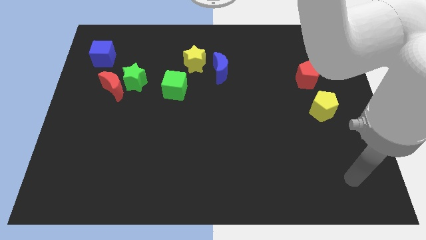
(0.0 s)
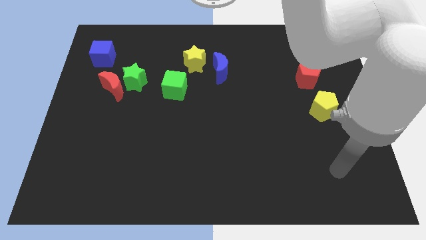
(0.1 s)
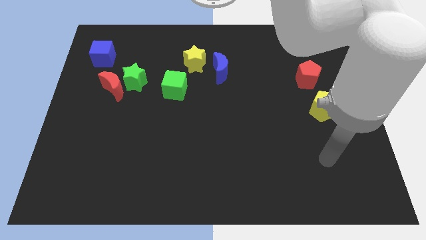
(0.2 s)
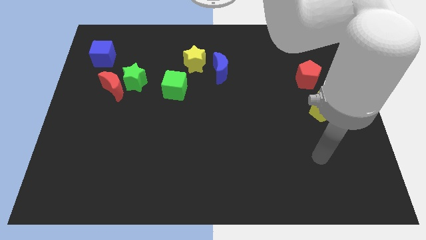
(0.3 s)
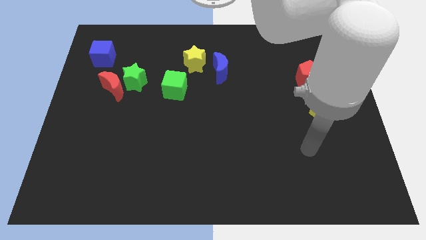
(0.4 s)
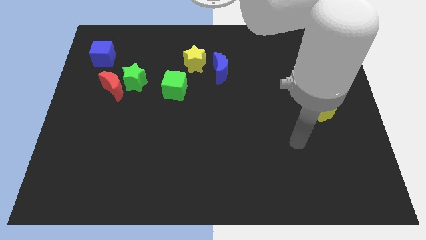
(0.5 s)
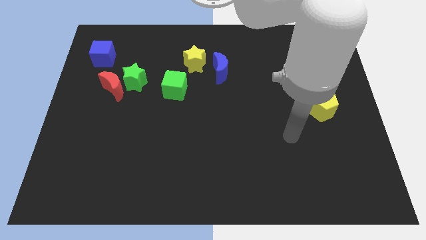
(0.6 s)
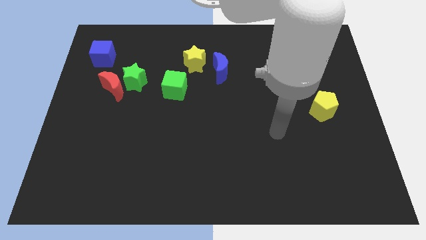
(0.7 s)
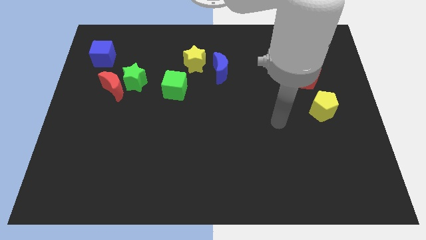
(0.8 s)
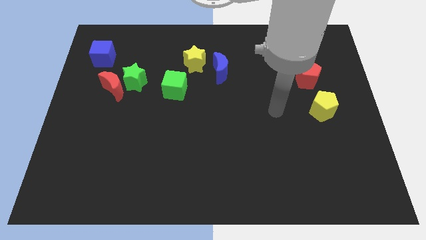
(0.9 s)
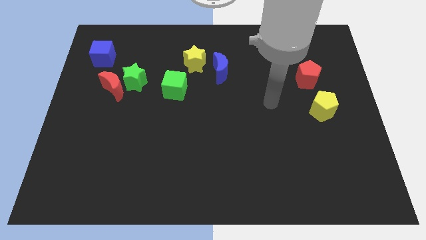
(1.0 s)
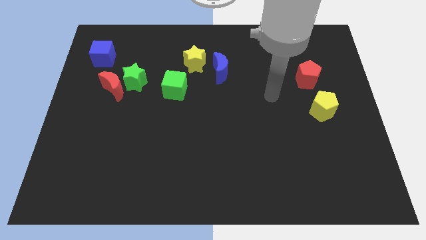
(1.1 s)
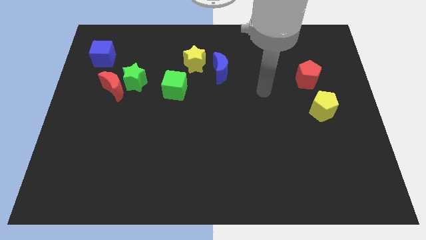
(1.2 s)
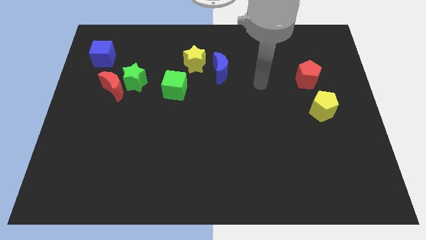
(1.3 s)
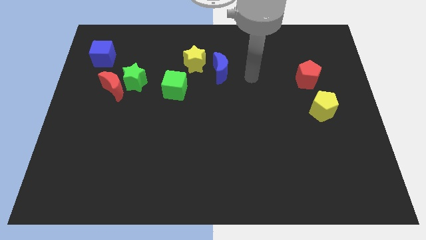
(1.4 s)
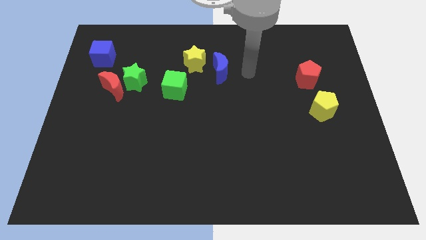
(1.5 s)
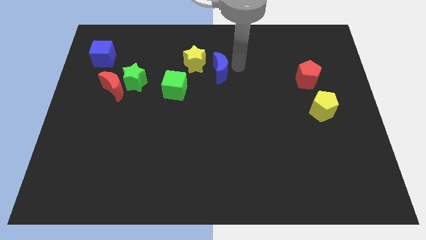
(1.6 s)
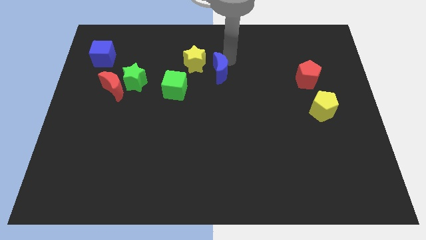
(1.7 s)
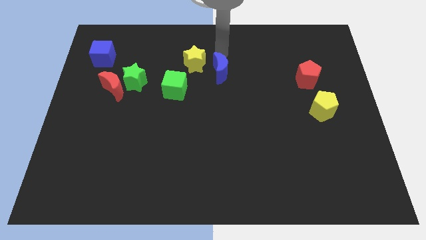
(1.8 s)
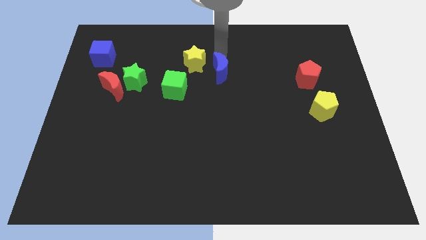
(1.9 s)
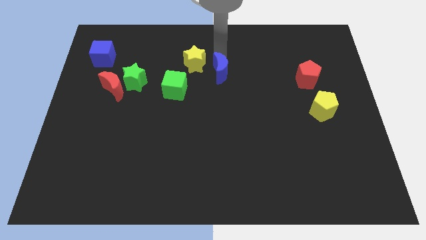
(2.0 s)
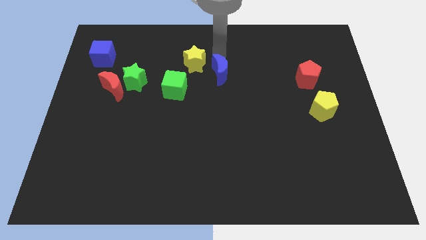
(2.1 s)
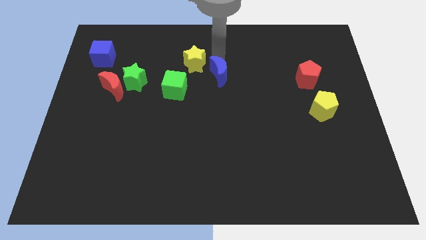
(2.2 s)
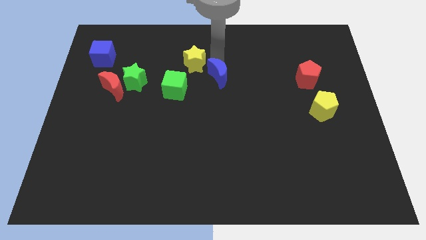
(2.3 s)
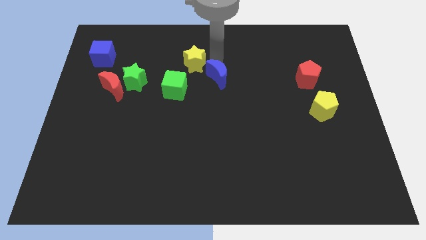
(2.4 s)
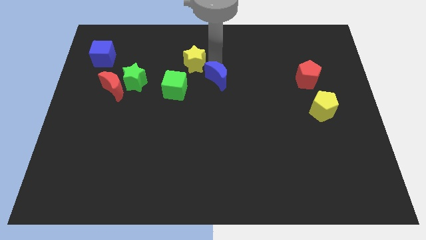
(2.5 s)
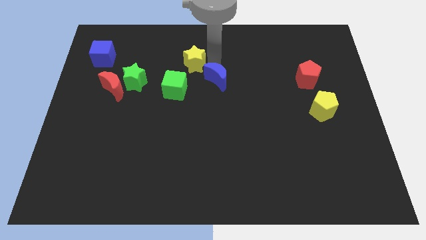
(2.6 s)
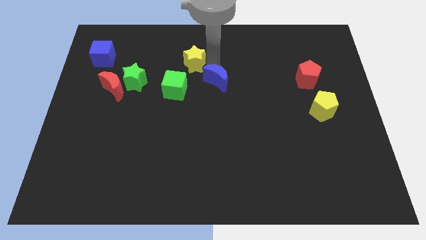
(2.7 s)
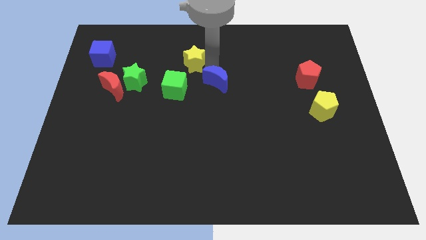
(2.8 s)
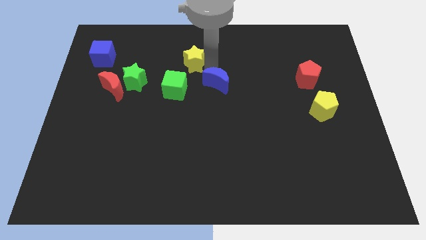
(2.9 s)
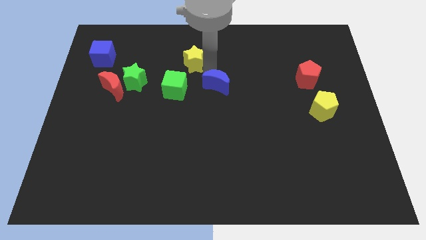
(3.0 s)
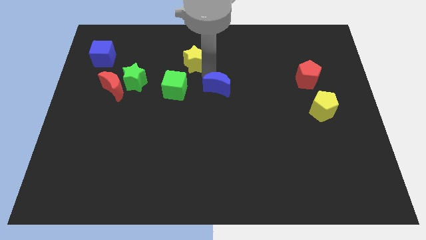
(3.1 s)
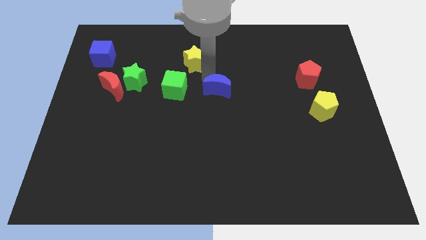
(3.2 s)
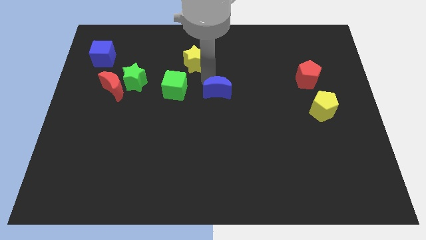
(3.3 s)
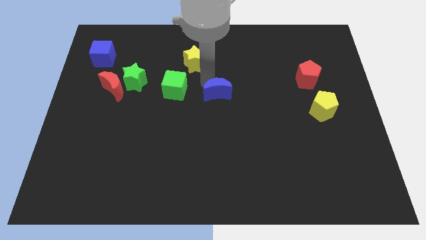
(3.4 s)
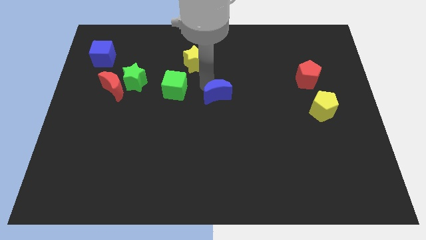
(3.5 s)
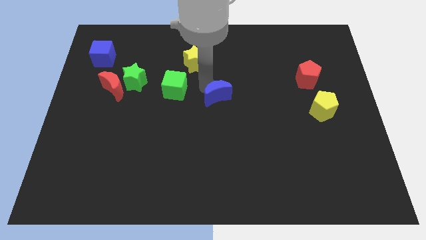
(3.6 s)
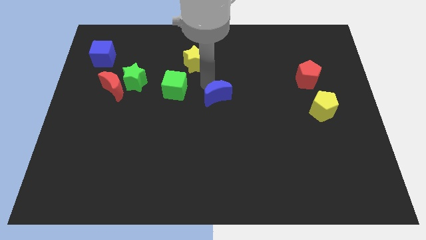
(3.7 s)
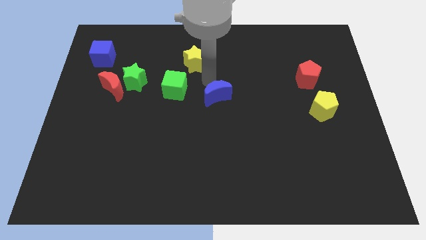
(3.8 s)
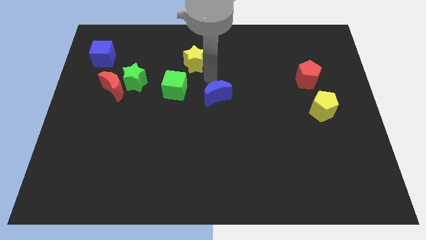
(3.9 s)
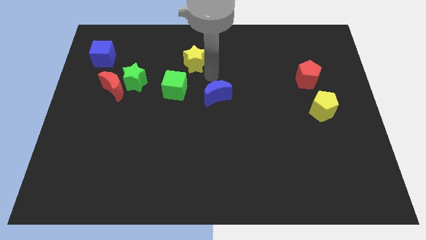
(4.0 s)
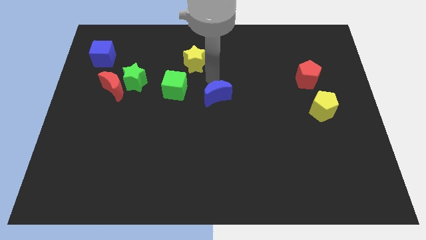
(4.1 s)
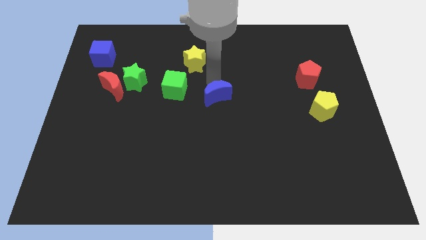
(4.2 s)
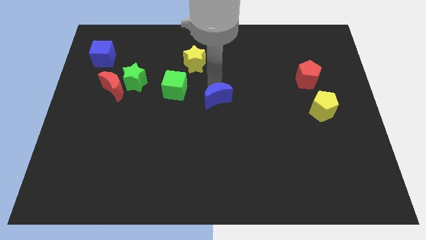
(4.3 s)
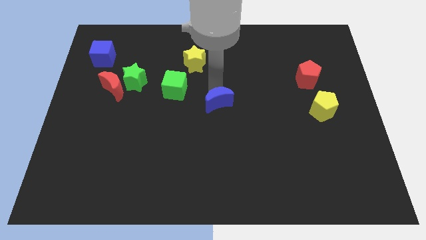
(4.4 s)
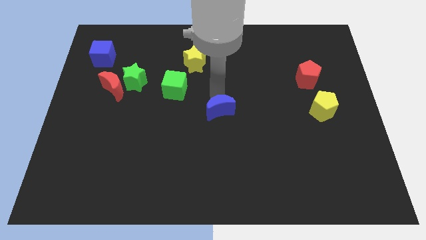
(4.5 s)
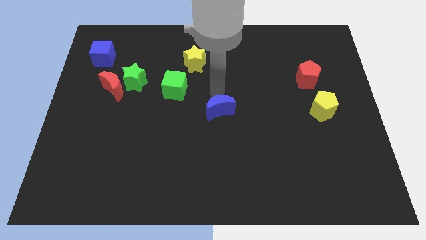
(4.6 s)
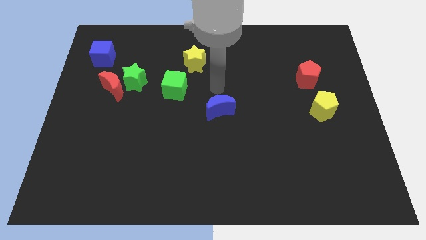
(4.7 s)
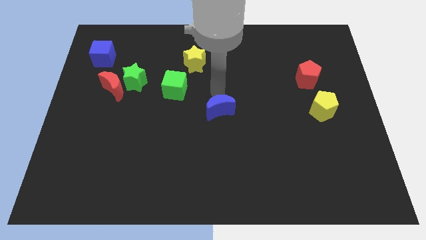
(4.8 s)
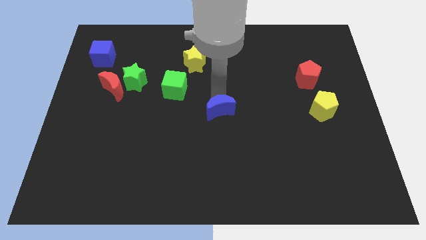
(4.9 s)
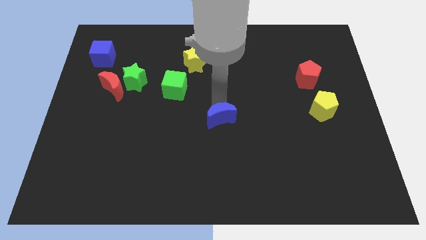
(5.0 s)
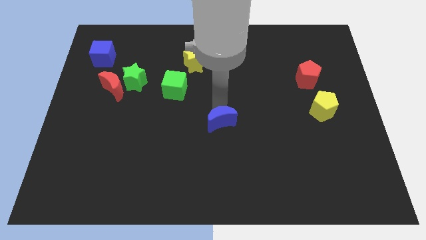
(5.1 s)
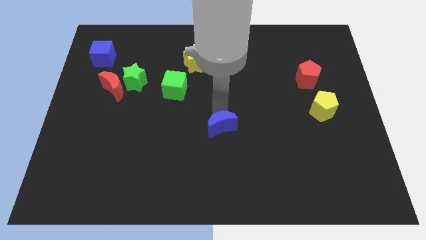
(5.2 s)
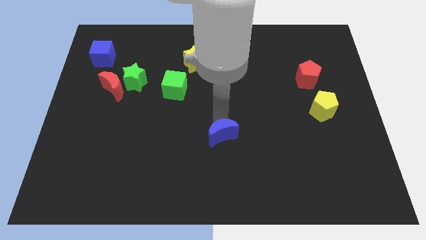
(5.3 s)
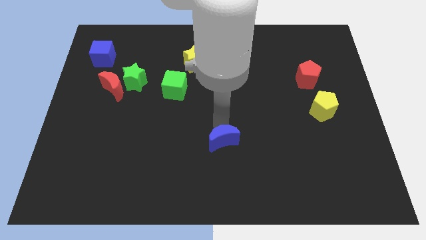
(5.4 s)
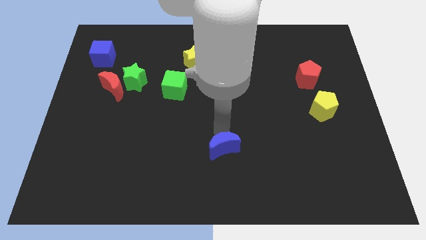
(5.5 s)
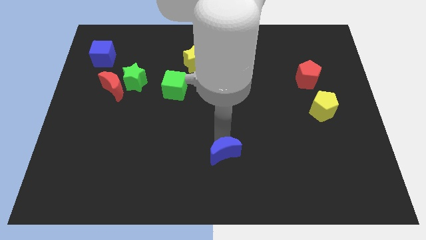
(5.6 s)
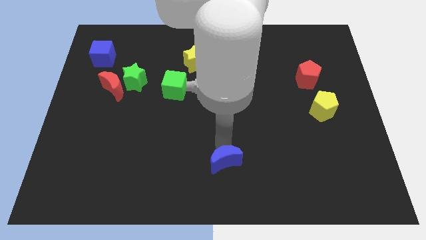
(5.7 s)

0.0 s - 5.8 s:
push the blue moon to the bottom side
